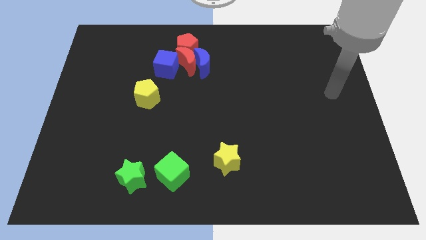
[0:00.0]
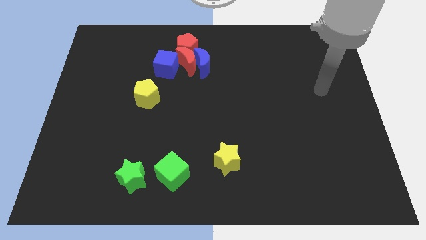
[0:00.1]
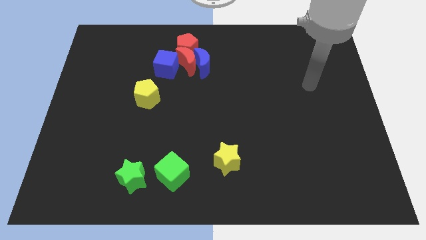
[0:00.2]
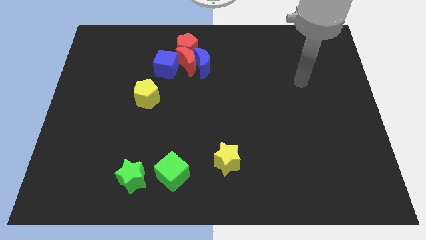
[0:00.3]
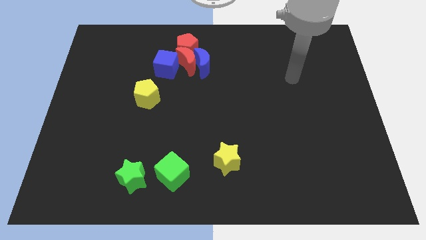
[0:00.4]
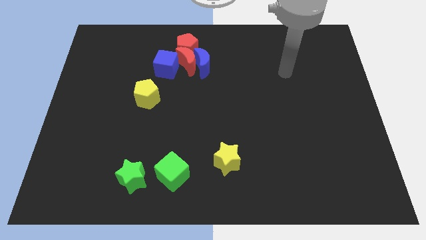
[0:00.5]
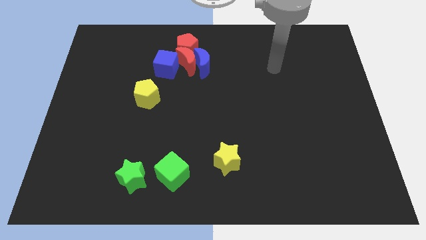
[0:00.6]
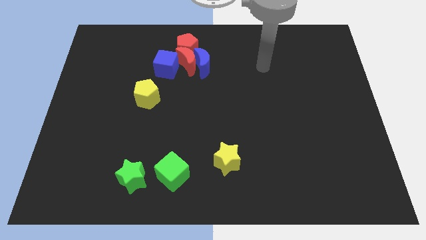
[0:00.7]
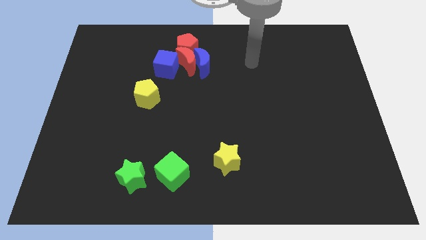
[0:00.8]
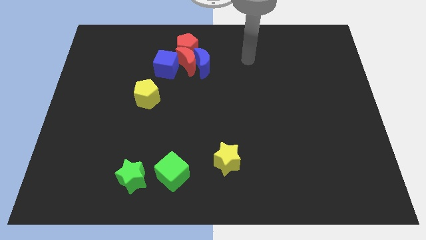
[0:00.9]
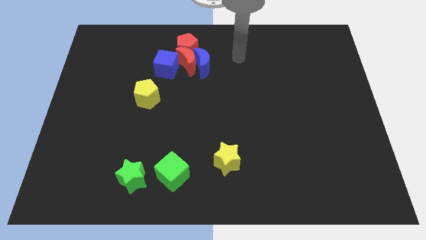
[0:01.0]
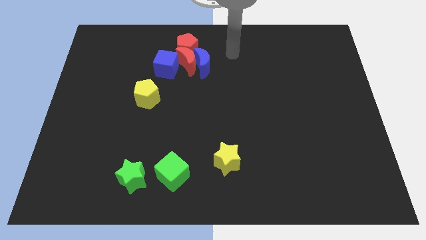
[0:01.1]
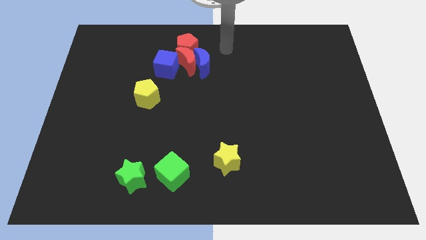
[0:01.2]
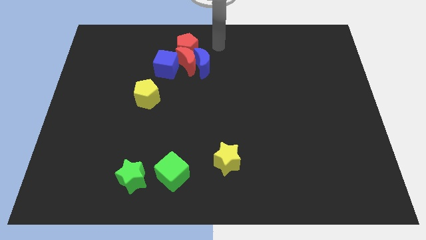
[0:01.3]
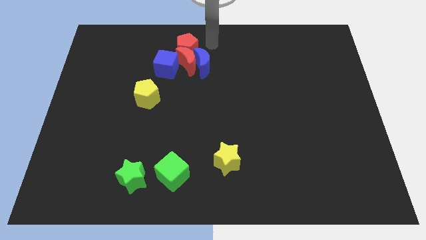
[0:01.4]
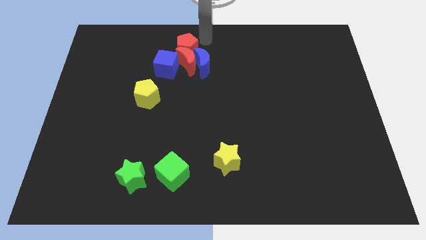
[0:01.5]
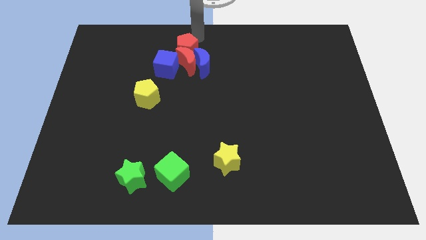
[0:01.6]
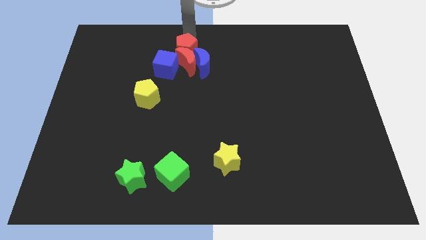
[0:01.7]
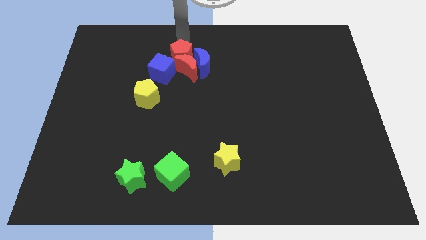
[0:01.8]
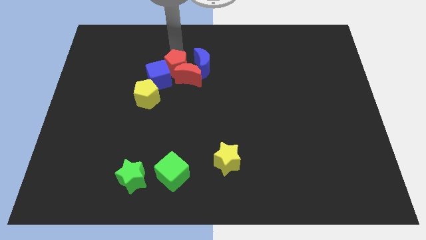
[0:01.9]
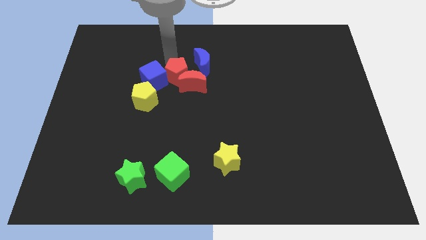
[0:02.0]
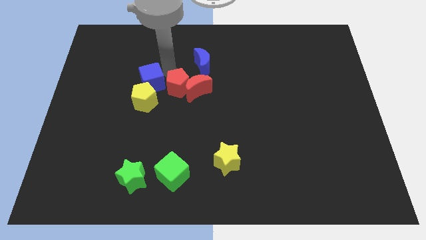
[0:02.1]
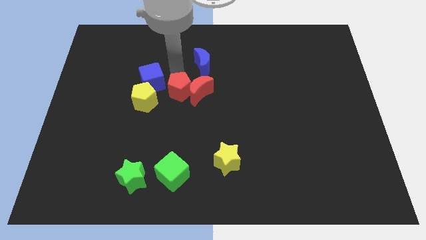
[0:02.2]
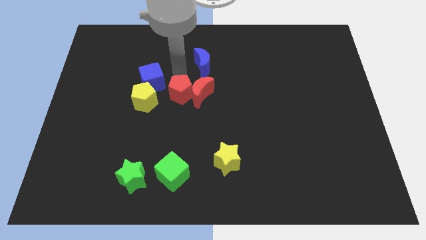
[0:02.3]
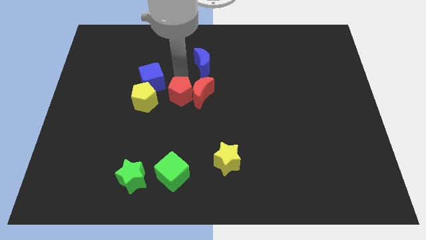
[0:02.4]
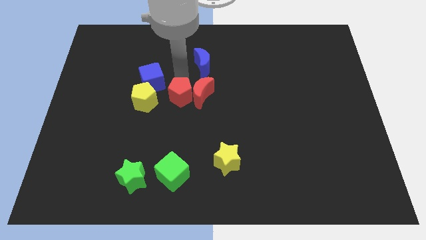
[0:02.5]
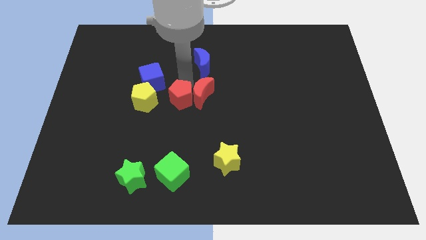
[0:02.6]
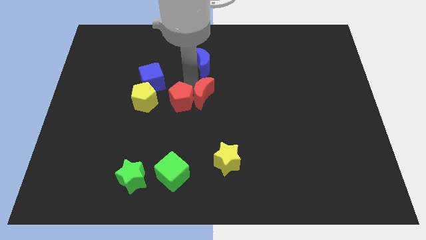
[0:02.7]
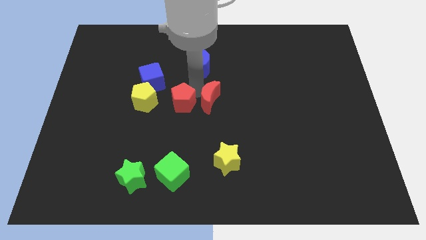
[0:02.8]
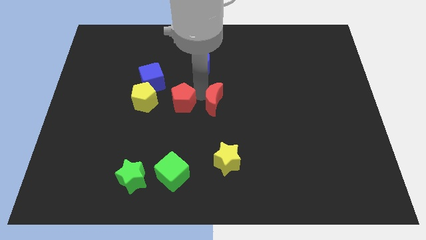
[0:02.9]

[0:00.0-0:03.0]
separate the red moon from the clump

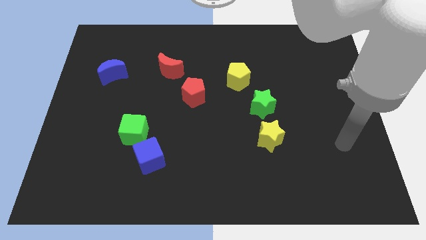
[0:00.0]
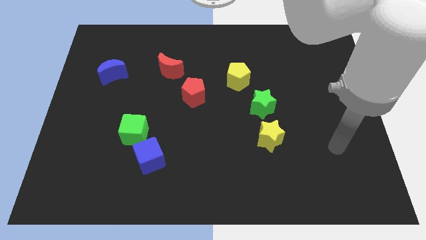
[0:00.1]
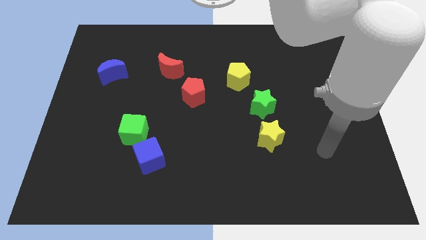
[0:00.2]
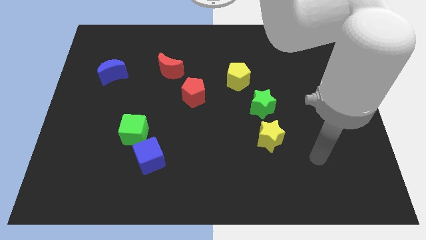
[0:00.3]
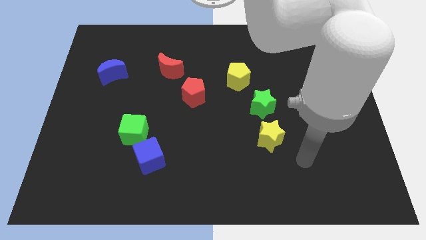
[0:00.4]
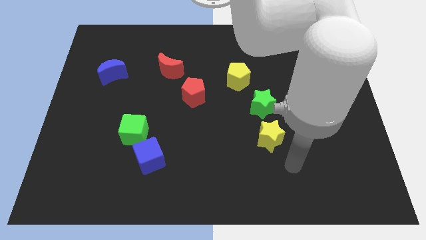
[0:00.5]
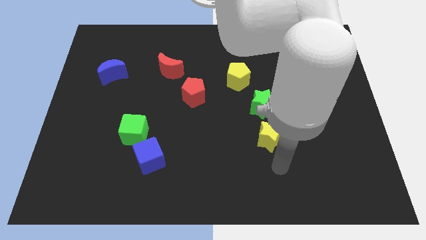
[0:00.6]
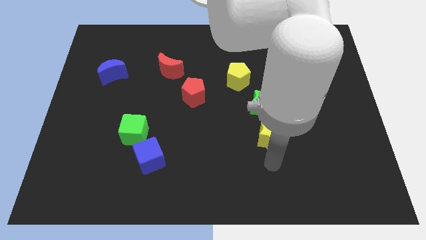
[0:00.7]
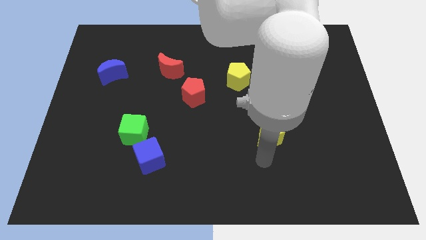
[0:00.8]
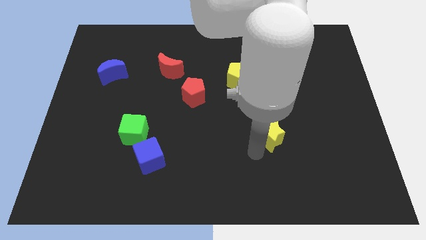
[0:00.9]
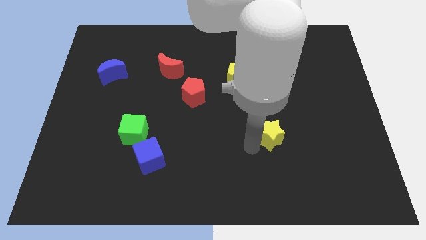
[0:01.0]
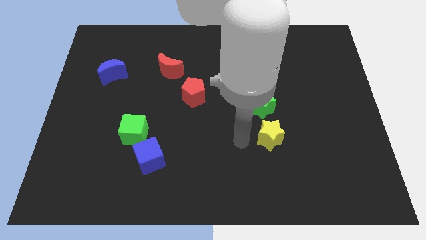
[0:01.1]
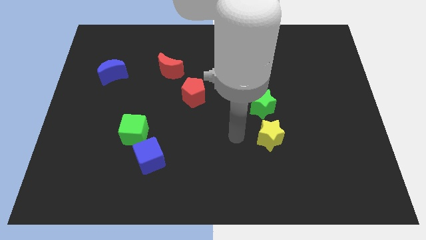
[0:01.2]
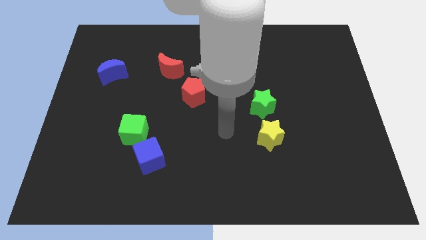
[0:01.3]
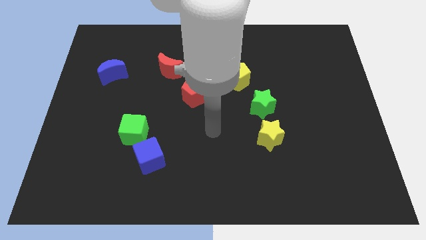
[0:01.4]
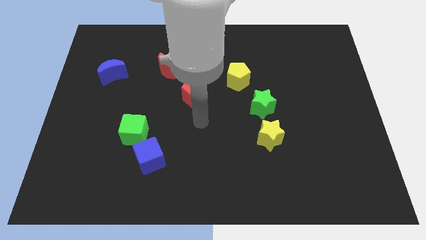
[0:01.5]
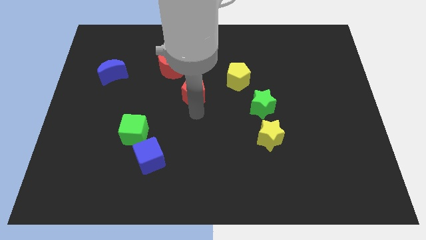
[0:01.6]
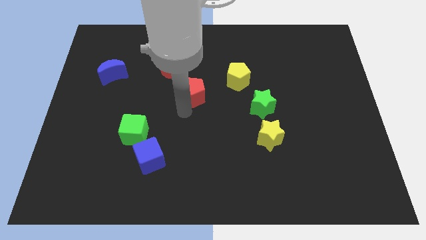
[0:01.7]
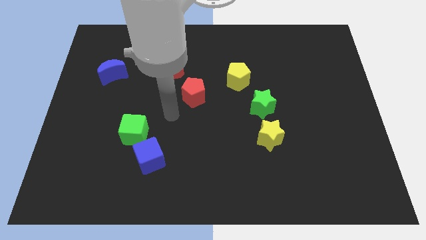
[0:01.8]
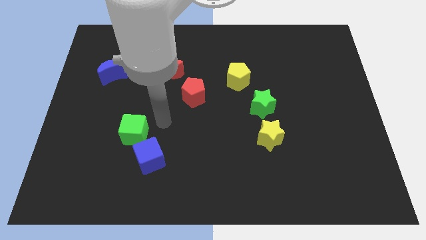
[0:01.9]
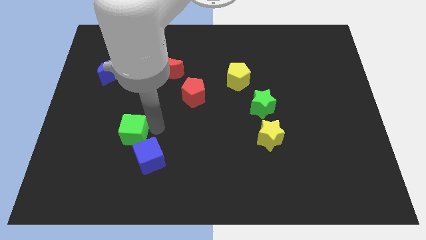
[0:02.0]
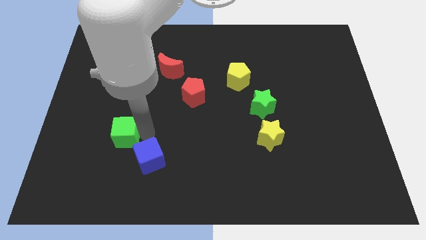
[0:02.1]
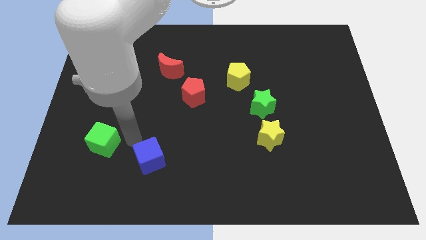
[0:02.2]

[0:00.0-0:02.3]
move the blue cube away from the green cube

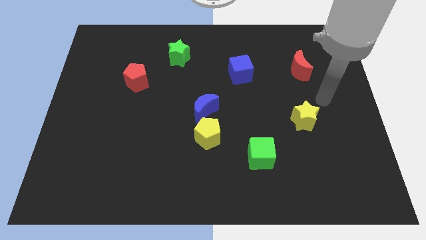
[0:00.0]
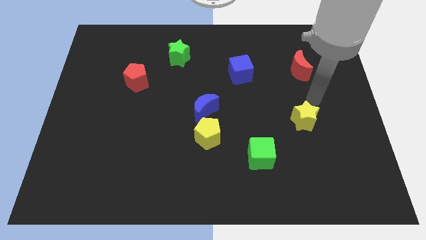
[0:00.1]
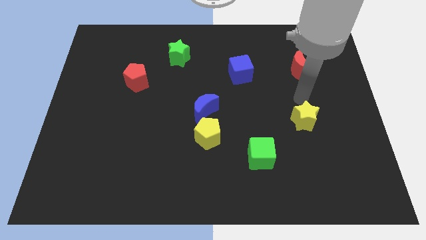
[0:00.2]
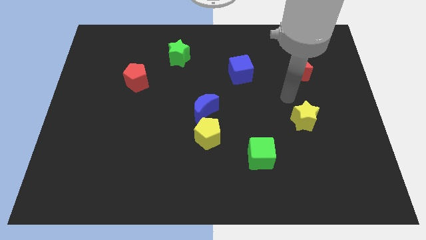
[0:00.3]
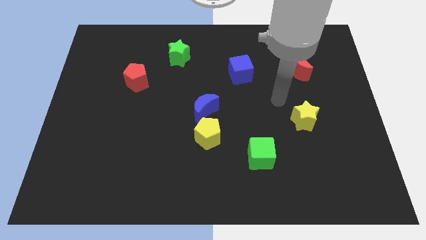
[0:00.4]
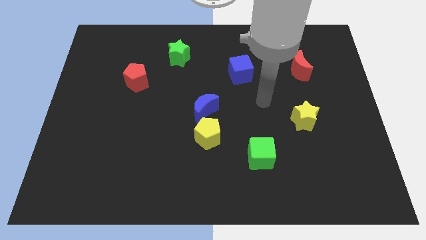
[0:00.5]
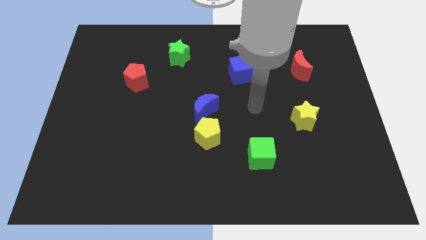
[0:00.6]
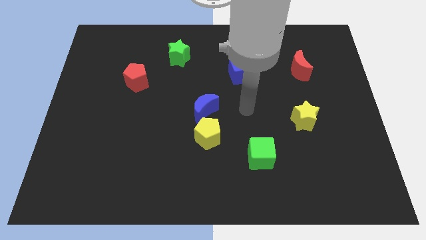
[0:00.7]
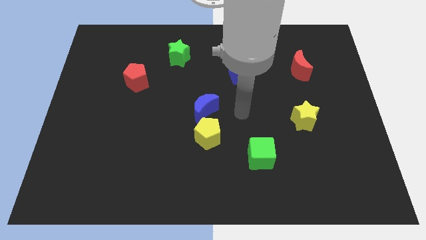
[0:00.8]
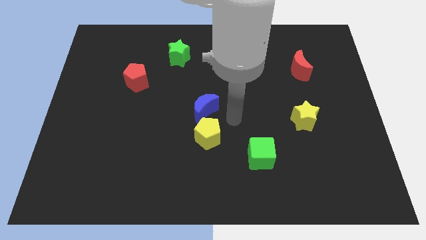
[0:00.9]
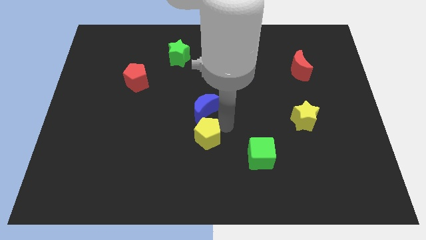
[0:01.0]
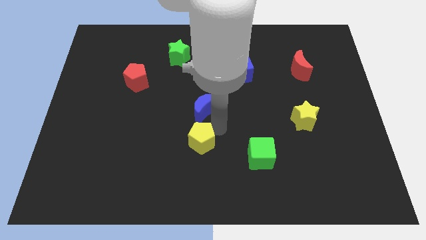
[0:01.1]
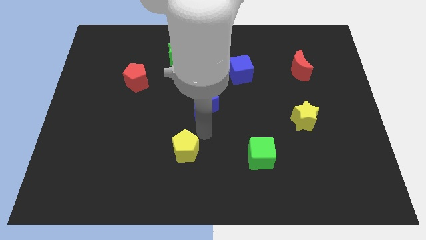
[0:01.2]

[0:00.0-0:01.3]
separate the blue moon from the yellow pentagon

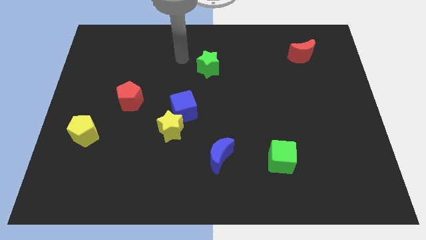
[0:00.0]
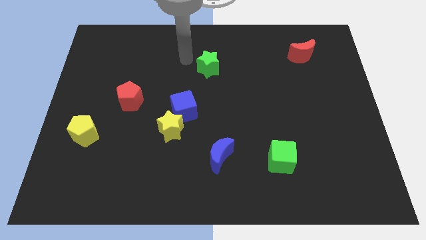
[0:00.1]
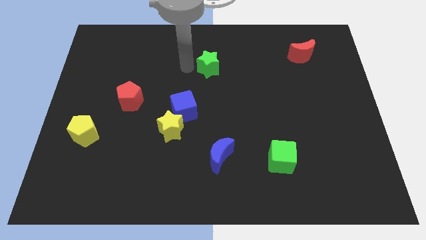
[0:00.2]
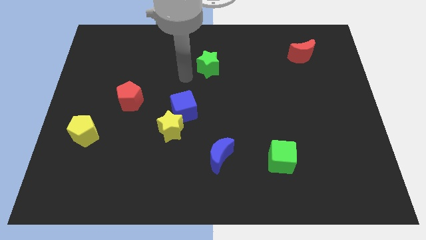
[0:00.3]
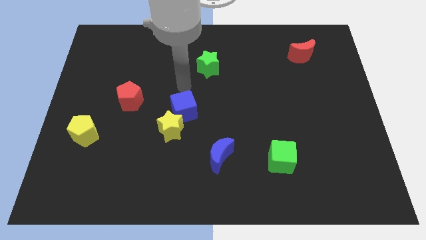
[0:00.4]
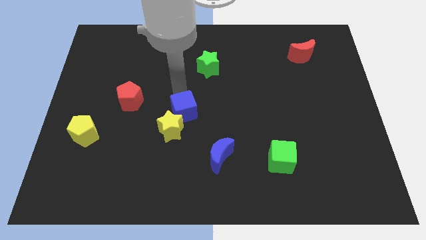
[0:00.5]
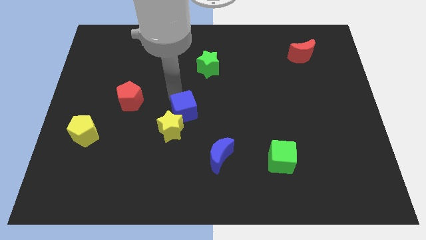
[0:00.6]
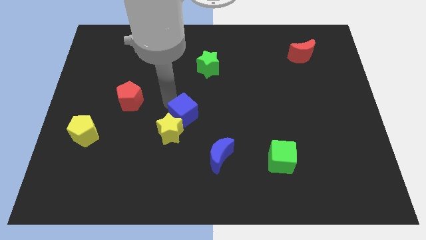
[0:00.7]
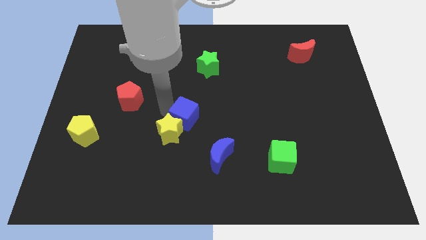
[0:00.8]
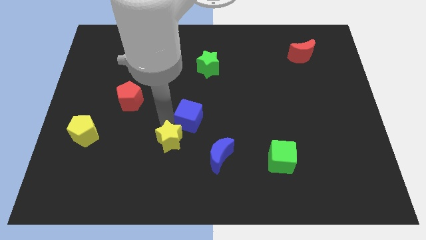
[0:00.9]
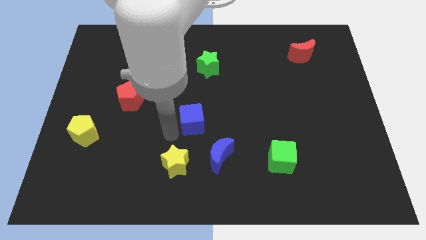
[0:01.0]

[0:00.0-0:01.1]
separate the blue cube from the yellow star

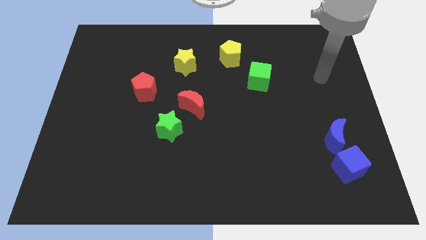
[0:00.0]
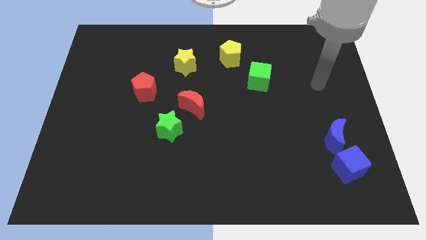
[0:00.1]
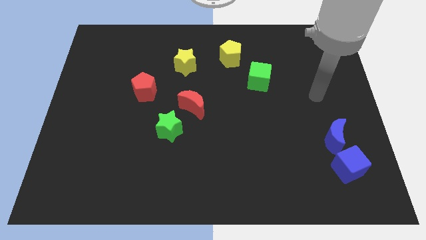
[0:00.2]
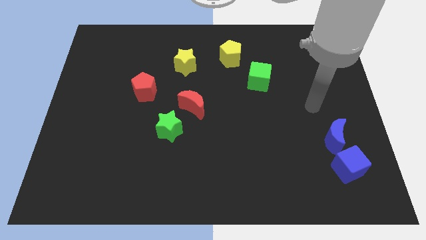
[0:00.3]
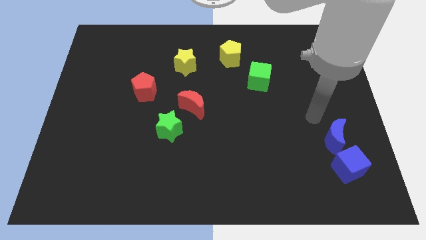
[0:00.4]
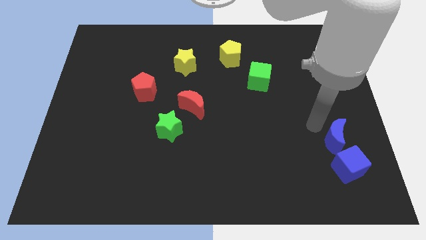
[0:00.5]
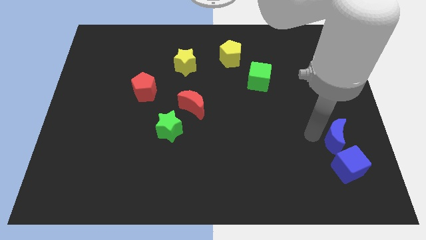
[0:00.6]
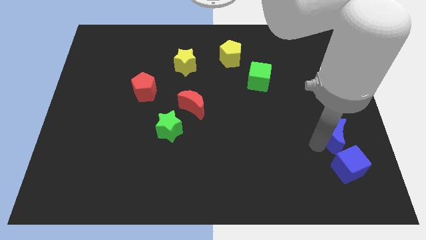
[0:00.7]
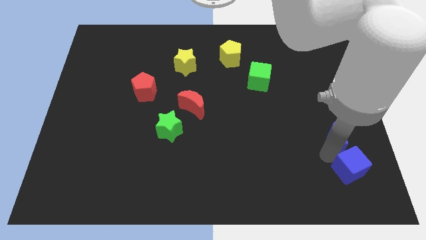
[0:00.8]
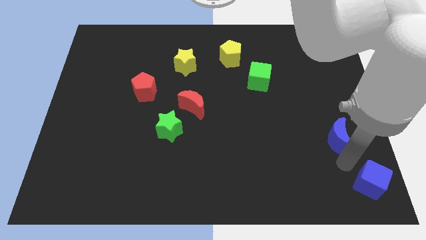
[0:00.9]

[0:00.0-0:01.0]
move the blue moon away from the blue cube

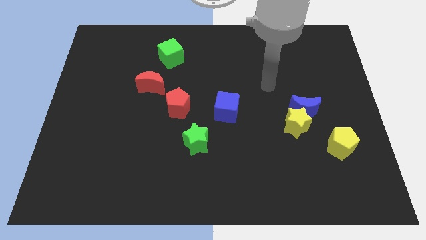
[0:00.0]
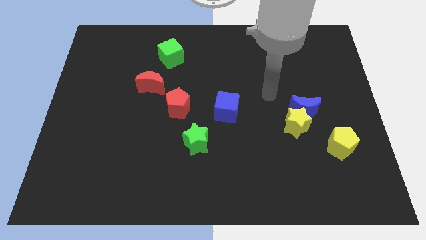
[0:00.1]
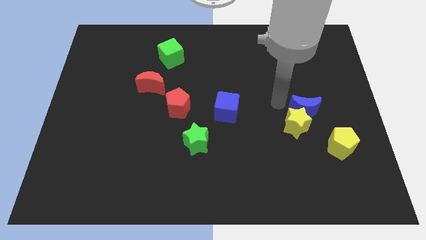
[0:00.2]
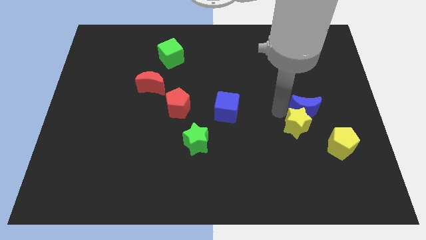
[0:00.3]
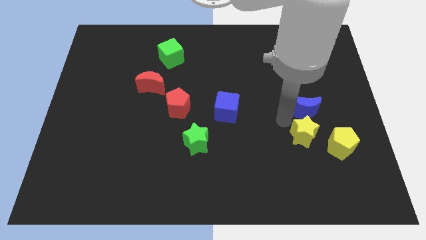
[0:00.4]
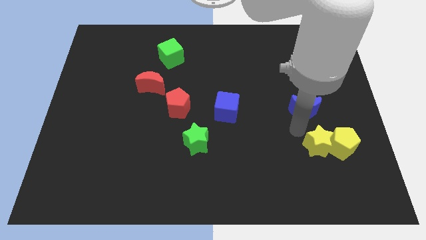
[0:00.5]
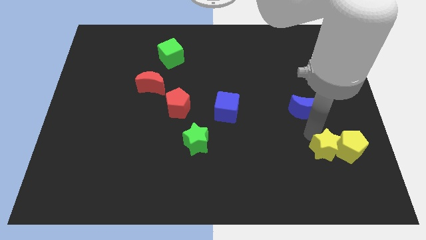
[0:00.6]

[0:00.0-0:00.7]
move the blue moon away from the yellow star
